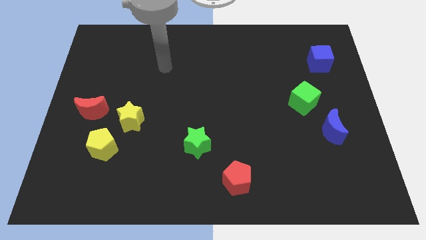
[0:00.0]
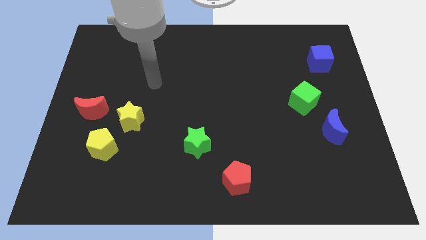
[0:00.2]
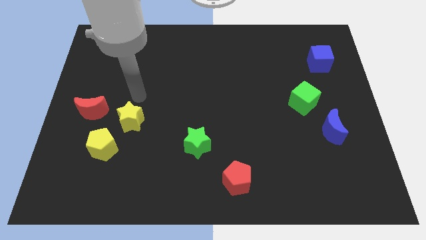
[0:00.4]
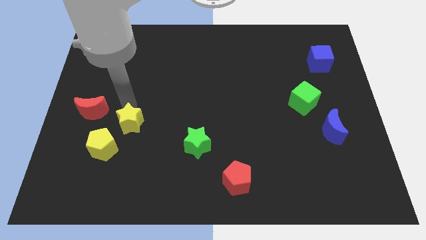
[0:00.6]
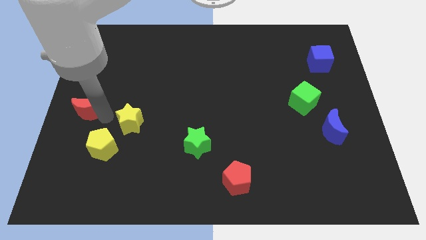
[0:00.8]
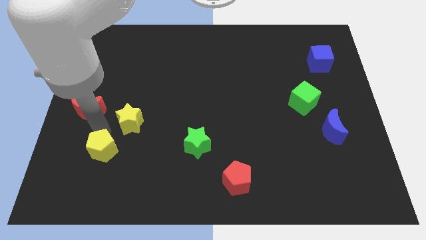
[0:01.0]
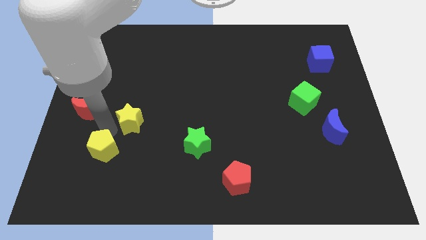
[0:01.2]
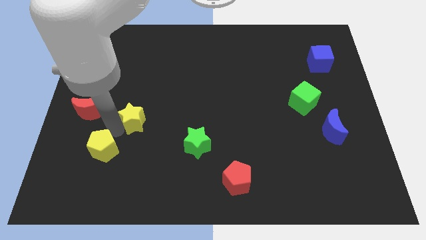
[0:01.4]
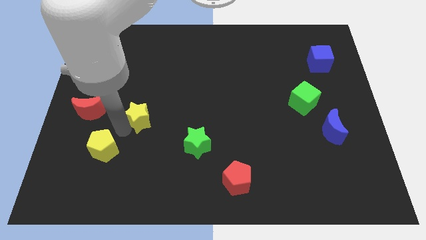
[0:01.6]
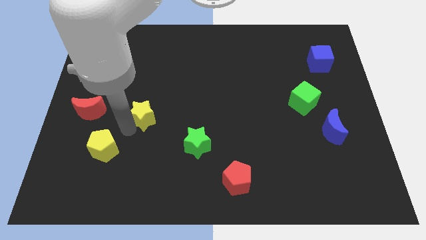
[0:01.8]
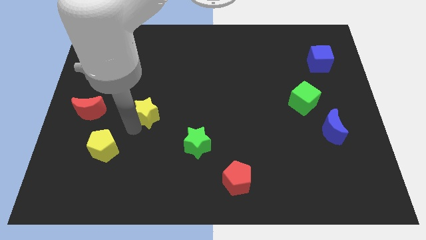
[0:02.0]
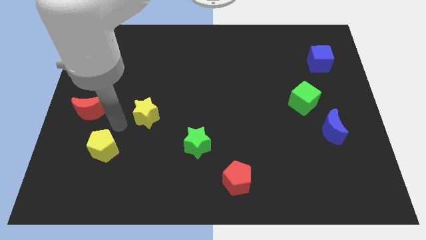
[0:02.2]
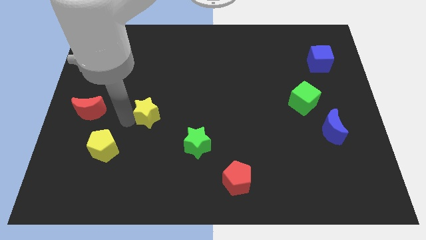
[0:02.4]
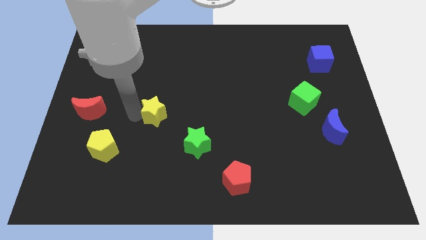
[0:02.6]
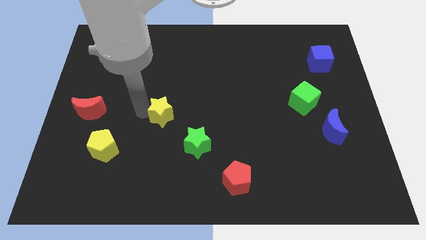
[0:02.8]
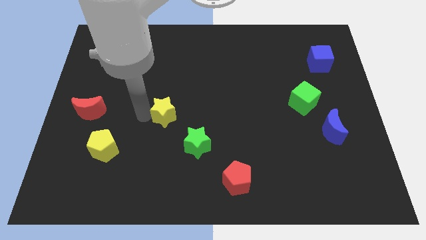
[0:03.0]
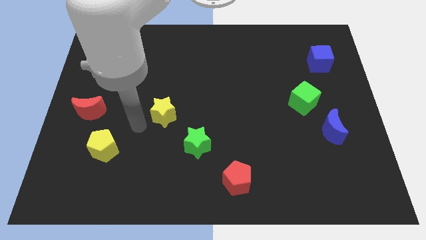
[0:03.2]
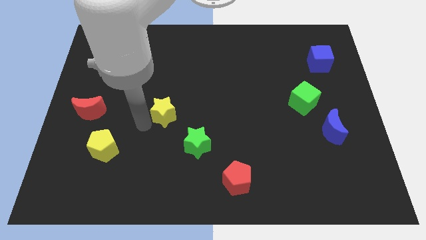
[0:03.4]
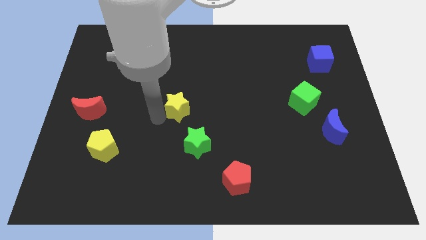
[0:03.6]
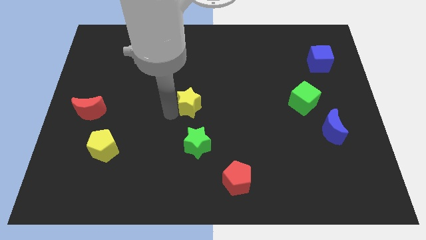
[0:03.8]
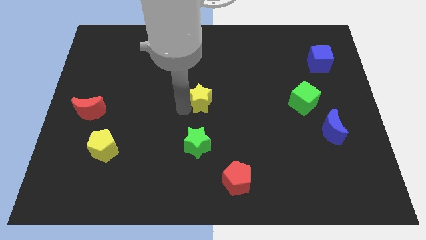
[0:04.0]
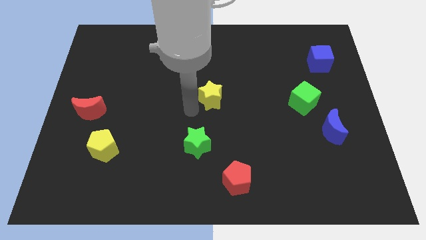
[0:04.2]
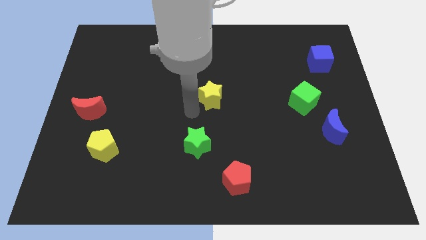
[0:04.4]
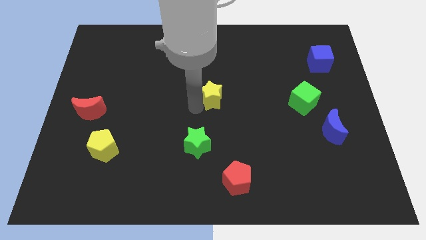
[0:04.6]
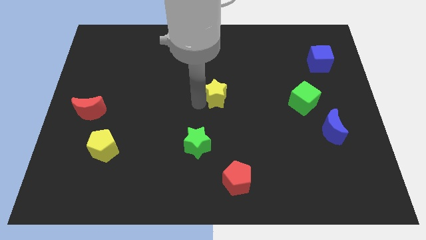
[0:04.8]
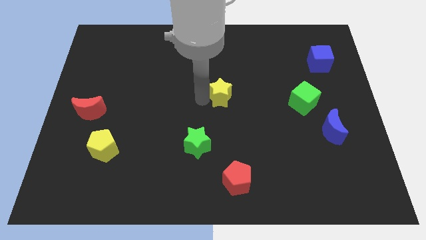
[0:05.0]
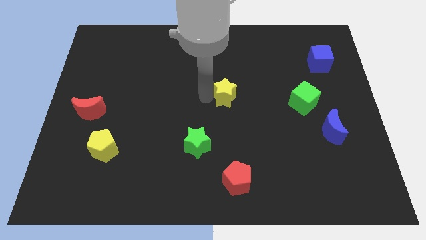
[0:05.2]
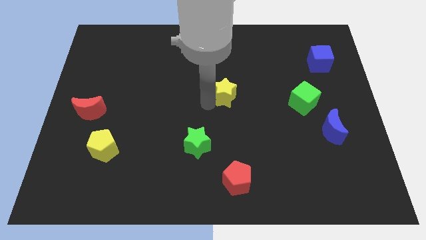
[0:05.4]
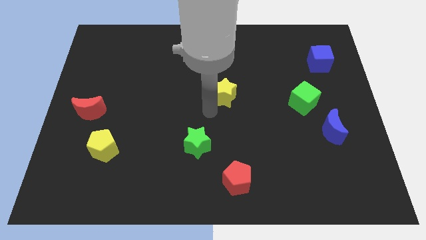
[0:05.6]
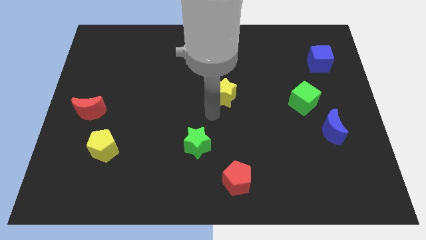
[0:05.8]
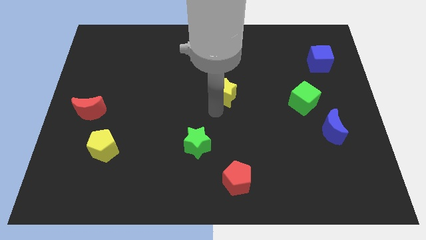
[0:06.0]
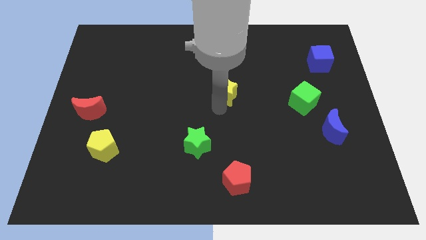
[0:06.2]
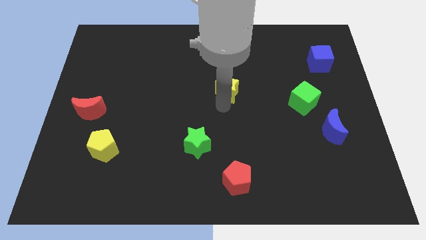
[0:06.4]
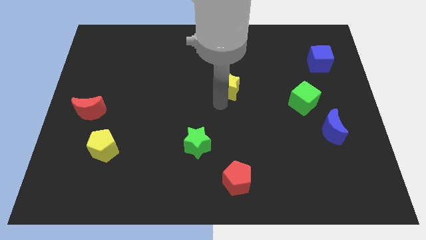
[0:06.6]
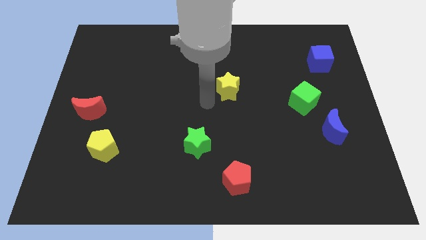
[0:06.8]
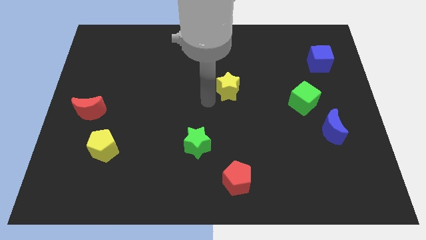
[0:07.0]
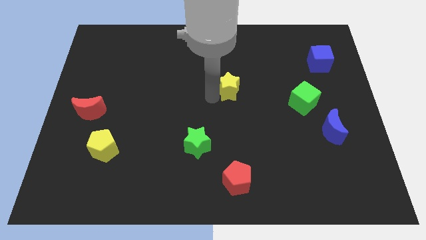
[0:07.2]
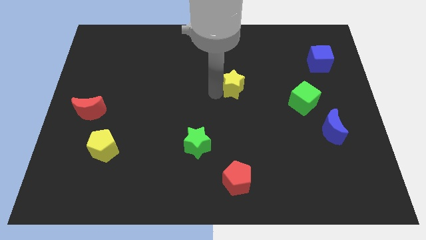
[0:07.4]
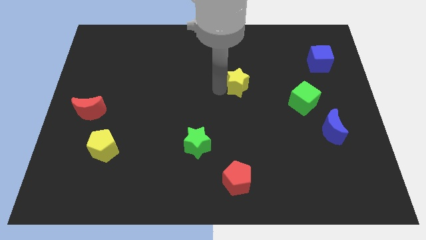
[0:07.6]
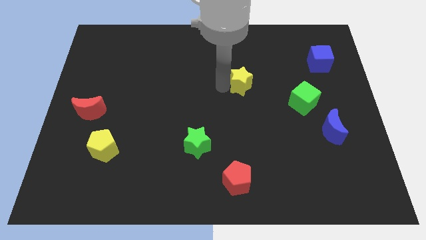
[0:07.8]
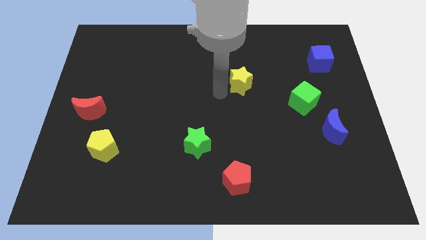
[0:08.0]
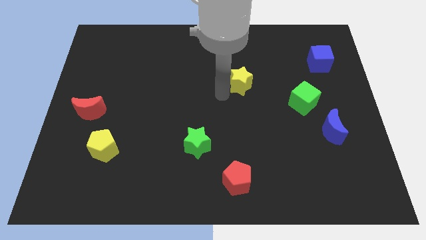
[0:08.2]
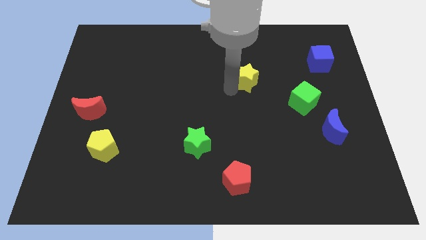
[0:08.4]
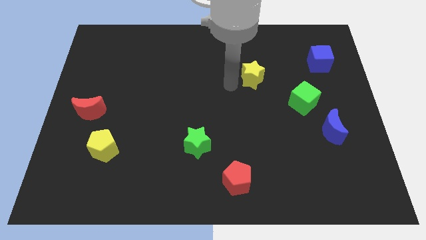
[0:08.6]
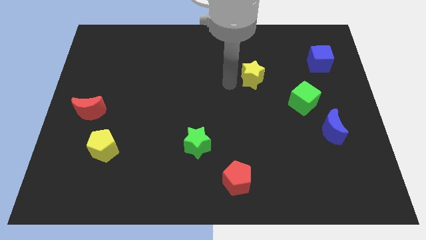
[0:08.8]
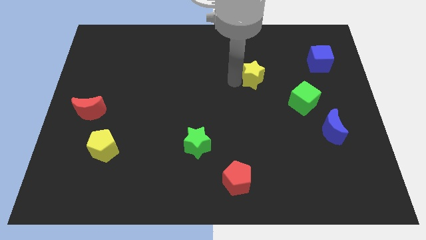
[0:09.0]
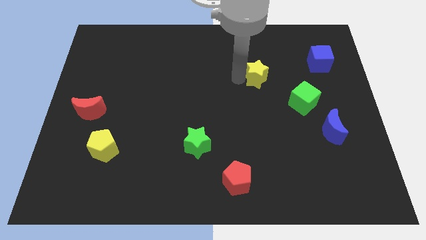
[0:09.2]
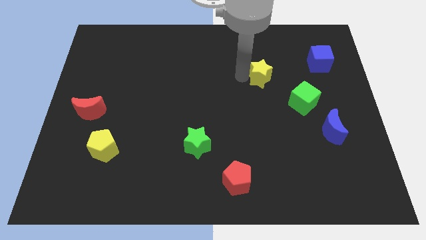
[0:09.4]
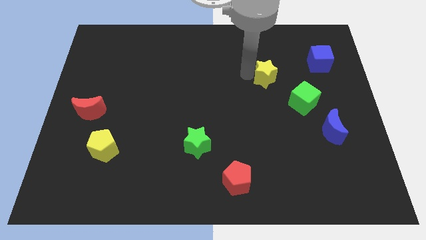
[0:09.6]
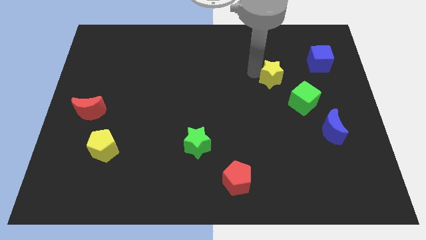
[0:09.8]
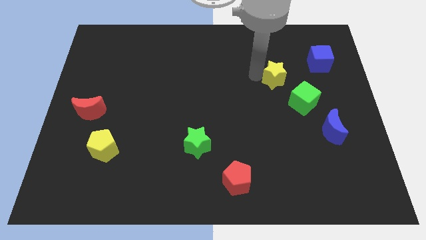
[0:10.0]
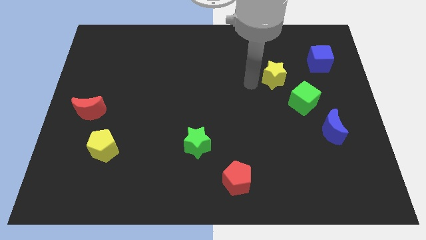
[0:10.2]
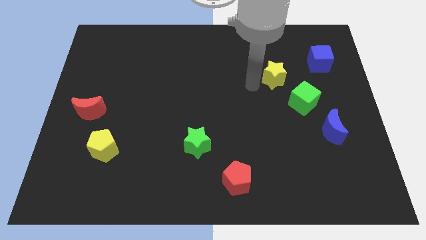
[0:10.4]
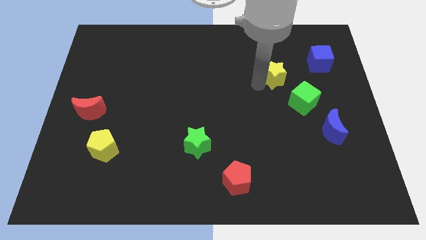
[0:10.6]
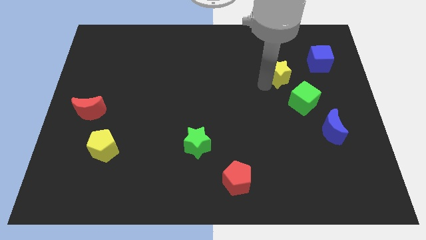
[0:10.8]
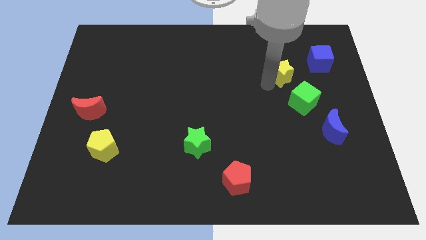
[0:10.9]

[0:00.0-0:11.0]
slide the yellow star above the green cube

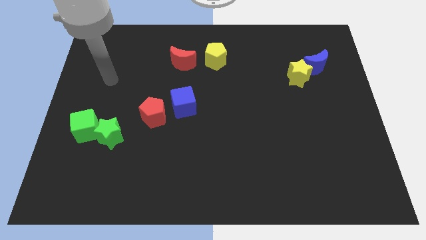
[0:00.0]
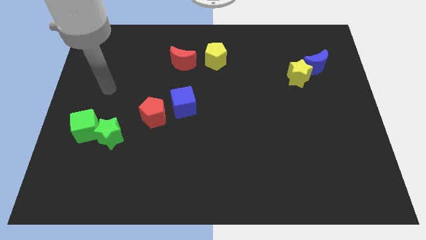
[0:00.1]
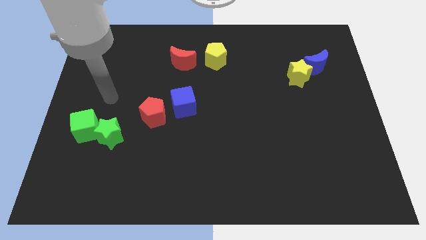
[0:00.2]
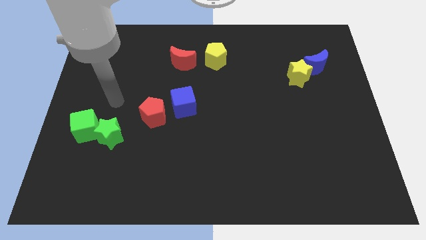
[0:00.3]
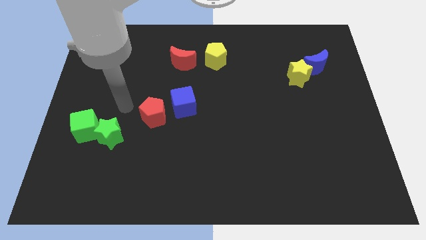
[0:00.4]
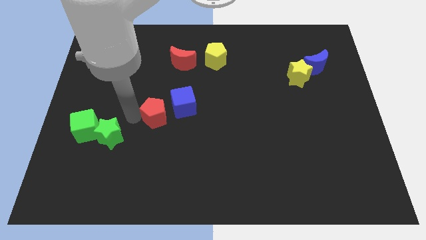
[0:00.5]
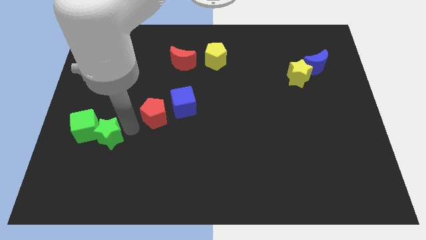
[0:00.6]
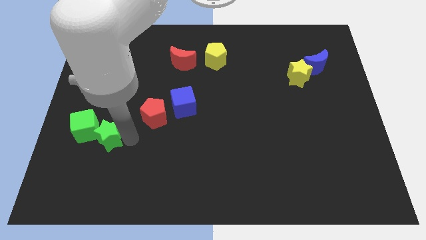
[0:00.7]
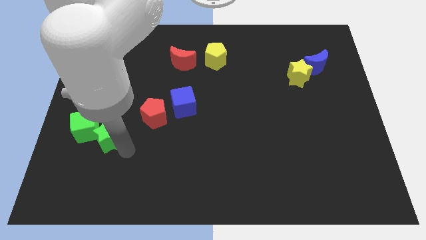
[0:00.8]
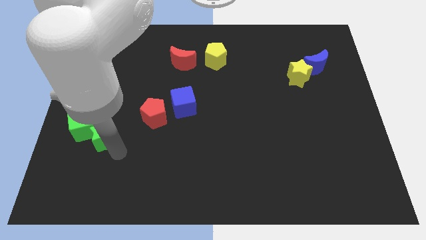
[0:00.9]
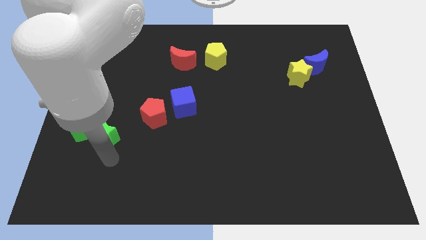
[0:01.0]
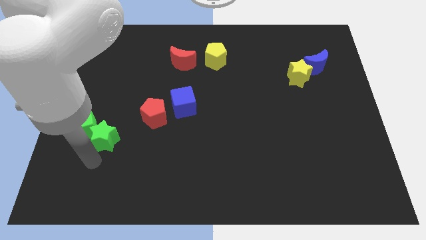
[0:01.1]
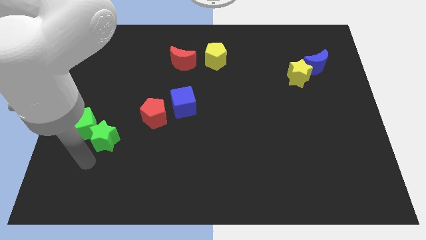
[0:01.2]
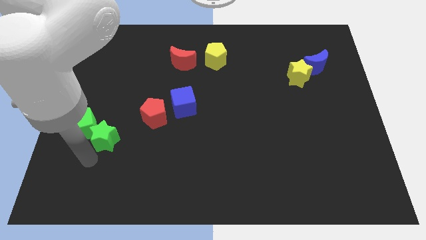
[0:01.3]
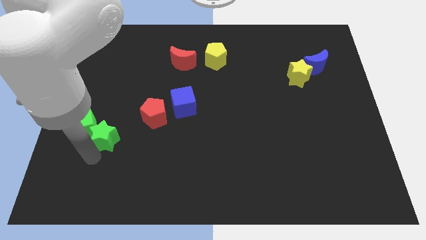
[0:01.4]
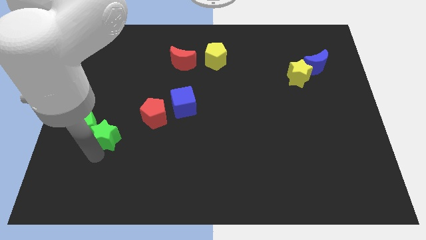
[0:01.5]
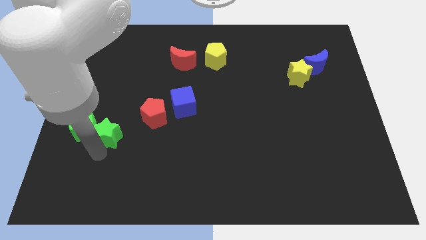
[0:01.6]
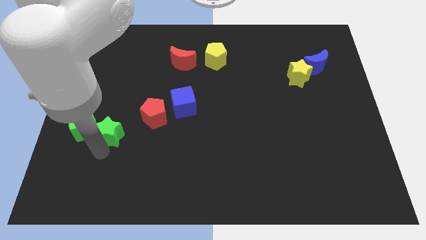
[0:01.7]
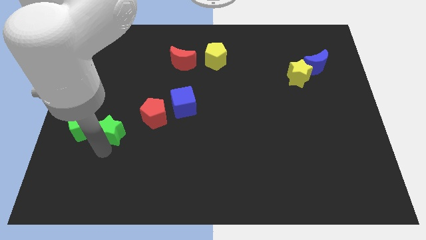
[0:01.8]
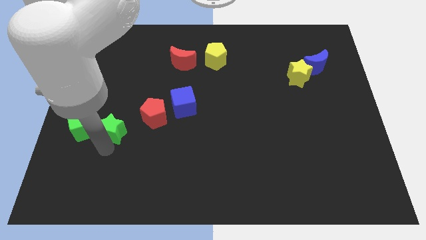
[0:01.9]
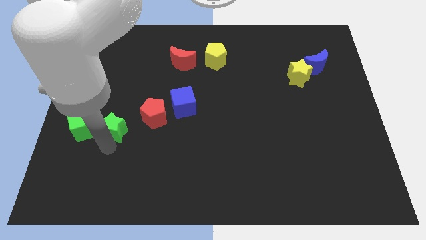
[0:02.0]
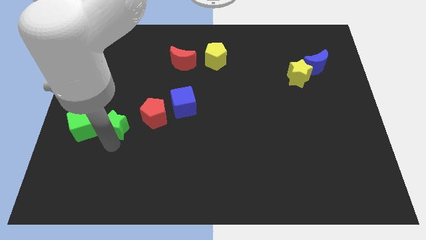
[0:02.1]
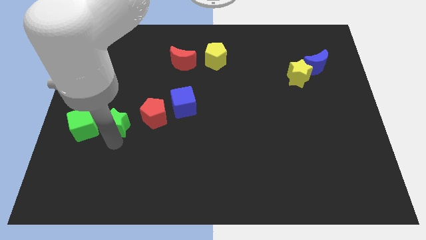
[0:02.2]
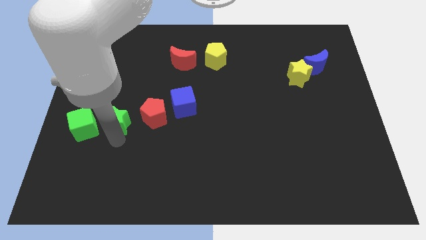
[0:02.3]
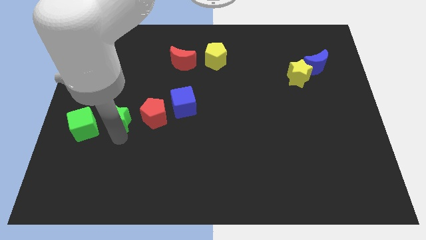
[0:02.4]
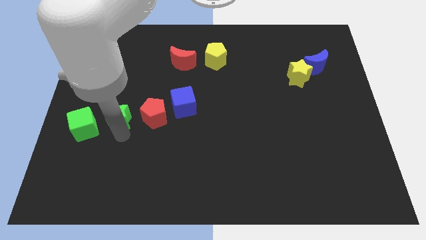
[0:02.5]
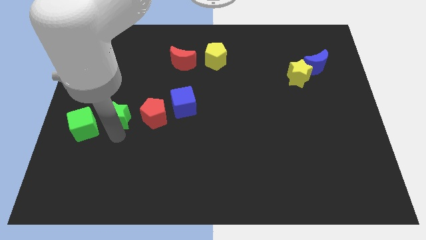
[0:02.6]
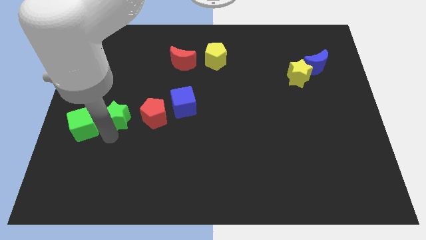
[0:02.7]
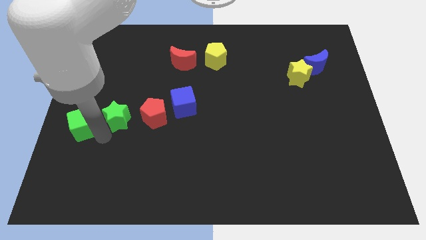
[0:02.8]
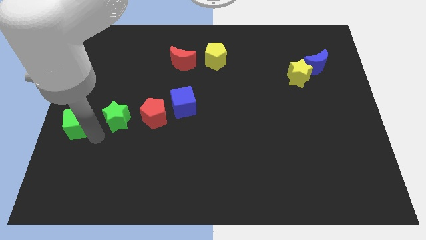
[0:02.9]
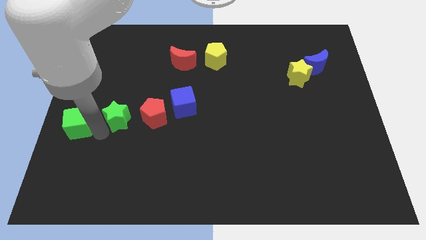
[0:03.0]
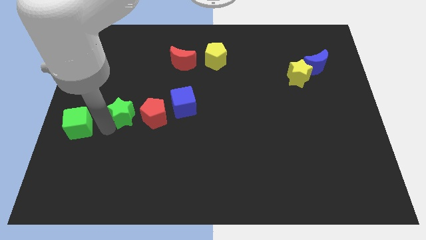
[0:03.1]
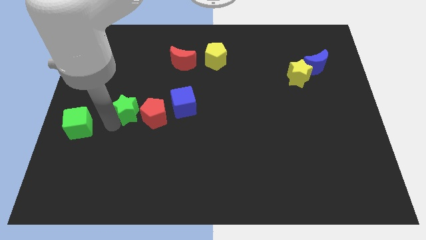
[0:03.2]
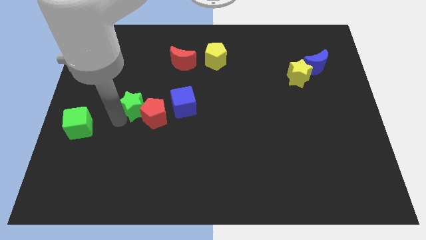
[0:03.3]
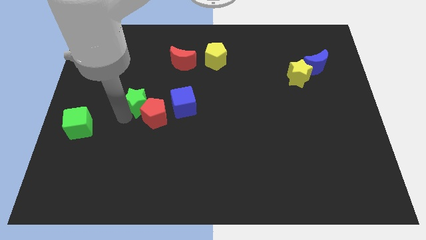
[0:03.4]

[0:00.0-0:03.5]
move the green star to the top side of the red pentagon
